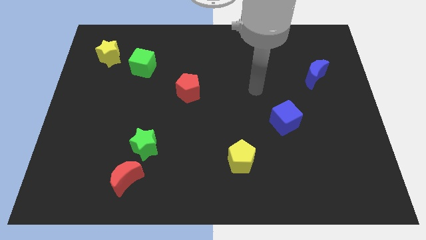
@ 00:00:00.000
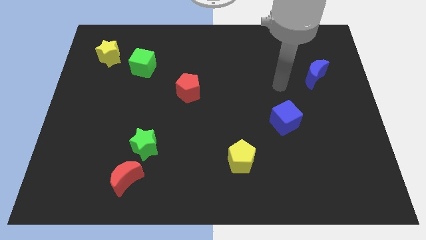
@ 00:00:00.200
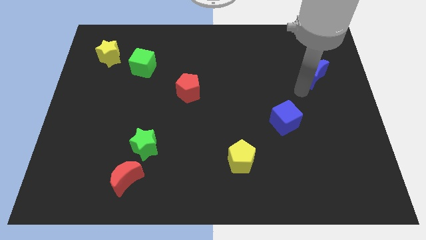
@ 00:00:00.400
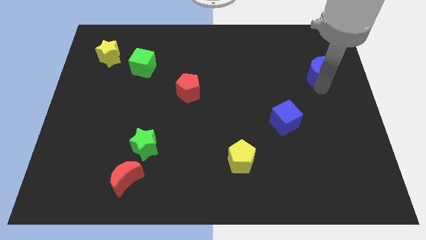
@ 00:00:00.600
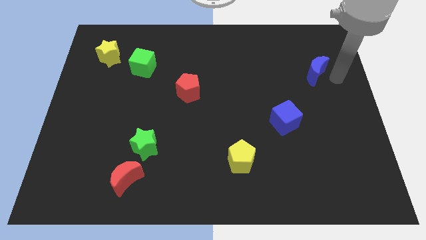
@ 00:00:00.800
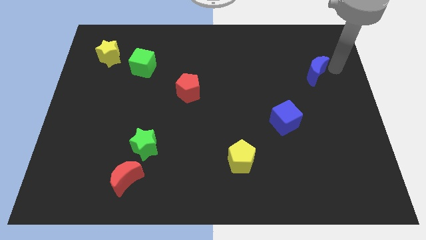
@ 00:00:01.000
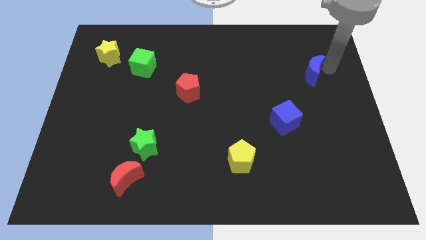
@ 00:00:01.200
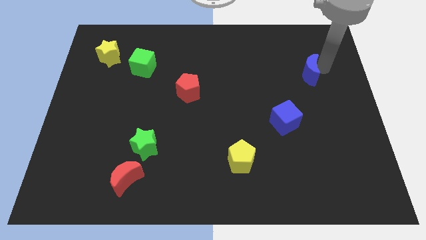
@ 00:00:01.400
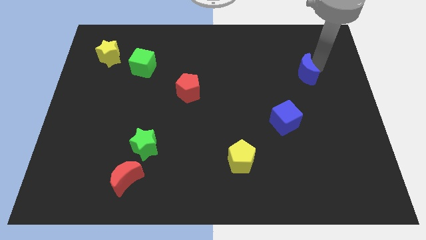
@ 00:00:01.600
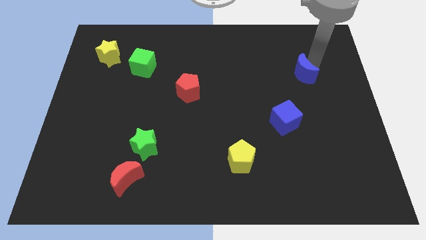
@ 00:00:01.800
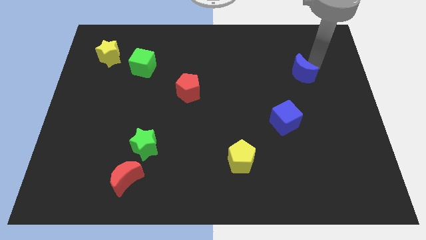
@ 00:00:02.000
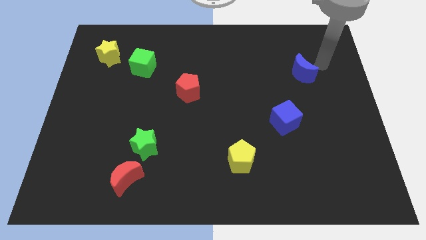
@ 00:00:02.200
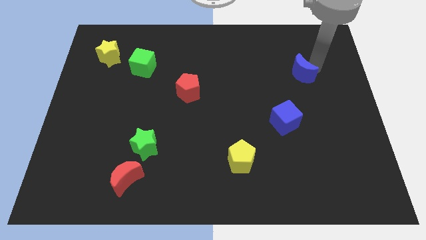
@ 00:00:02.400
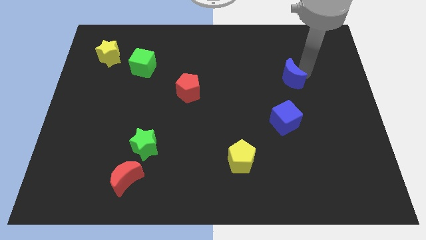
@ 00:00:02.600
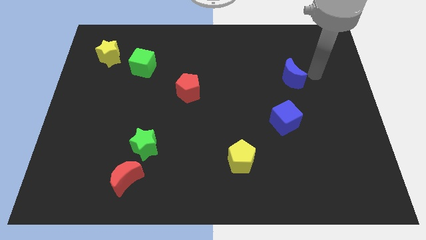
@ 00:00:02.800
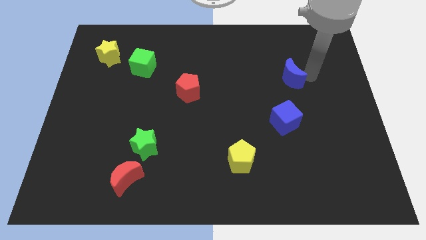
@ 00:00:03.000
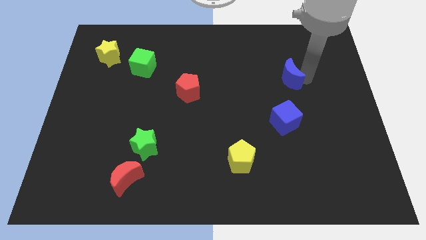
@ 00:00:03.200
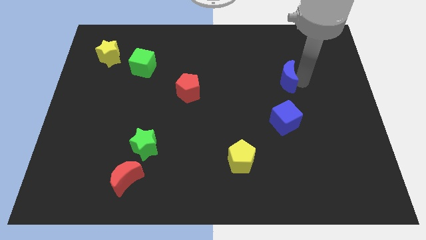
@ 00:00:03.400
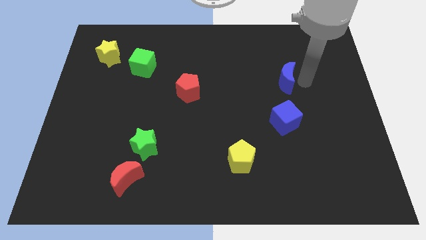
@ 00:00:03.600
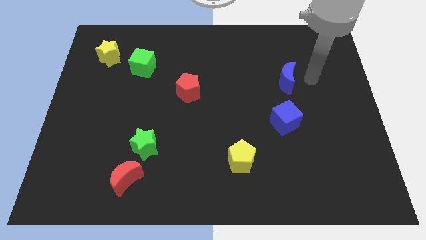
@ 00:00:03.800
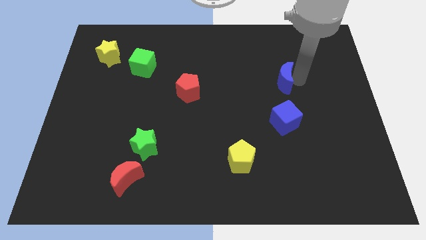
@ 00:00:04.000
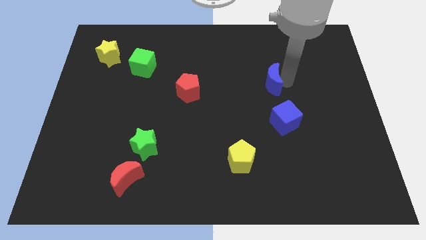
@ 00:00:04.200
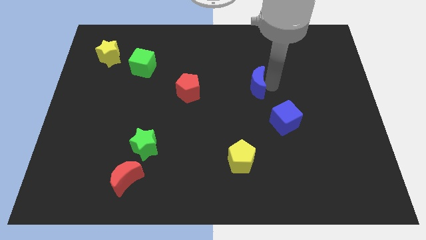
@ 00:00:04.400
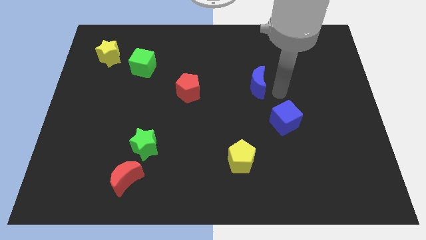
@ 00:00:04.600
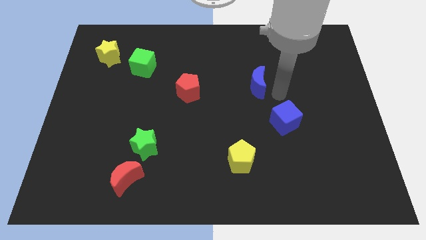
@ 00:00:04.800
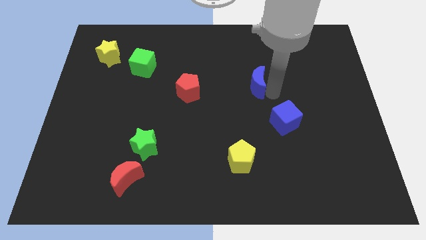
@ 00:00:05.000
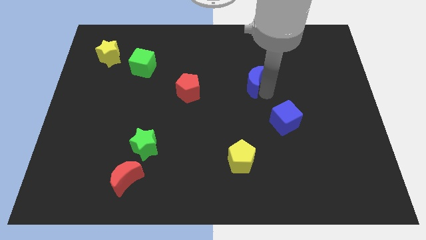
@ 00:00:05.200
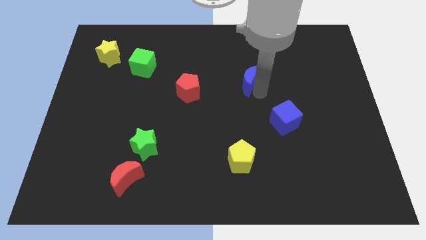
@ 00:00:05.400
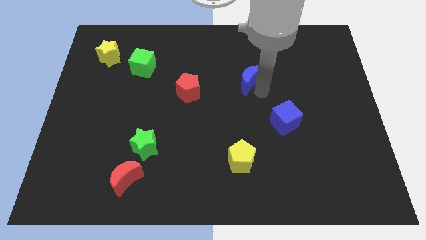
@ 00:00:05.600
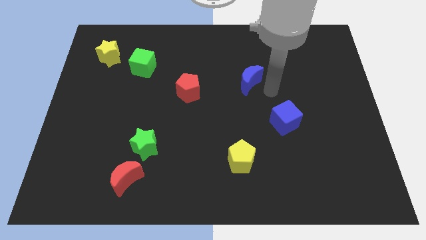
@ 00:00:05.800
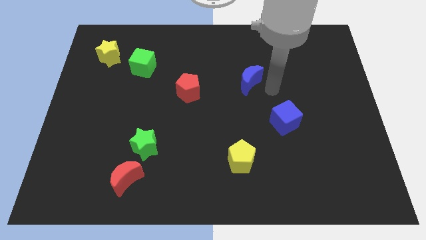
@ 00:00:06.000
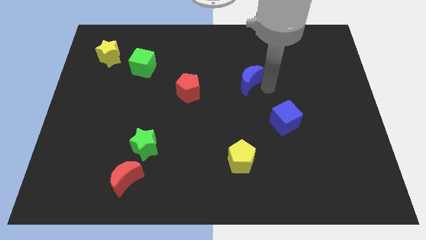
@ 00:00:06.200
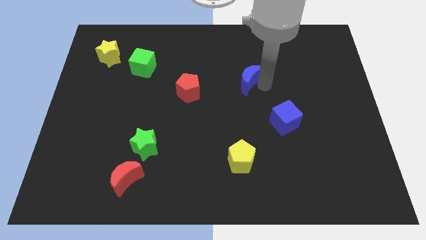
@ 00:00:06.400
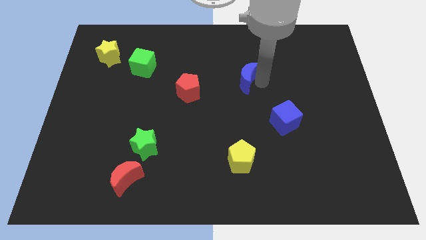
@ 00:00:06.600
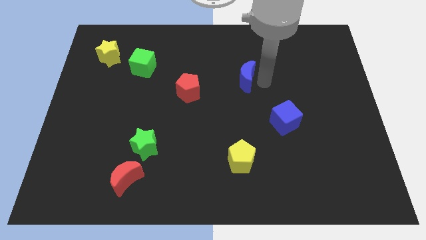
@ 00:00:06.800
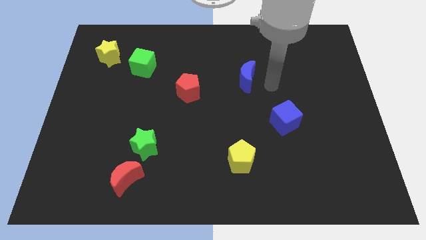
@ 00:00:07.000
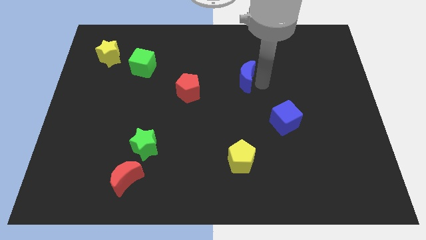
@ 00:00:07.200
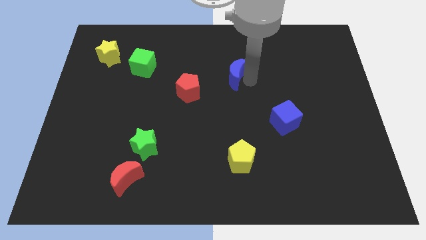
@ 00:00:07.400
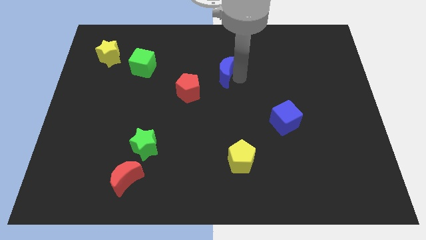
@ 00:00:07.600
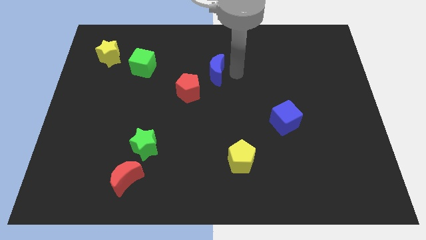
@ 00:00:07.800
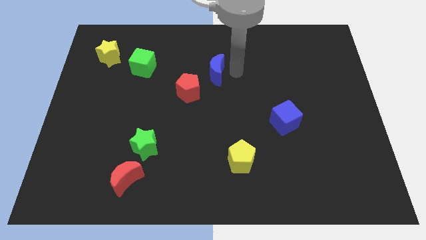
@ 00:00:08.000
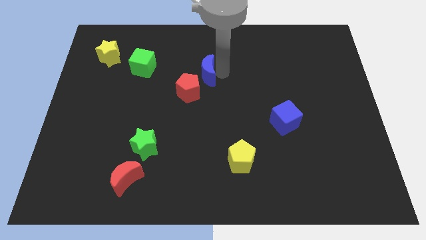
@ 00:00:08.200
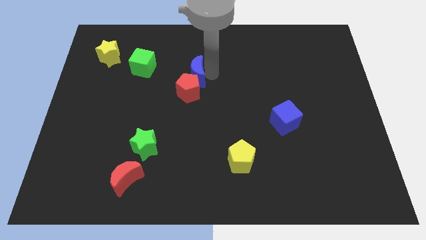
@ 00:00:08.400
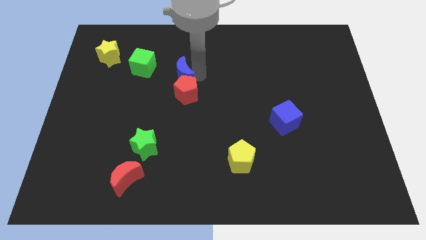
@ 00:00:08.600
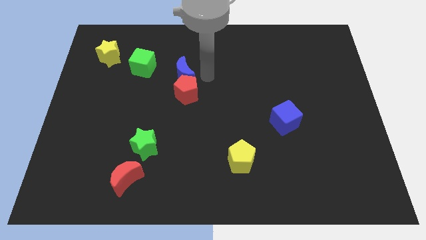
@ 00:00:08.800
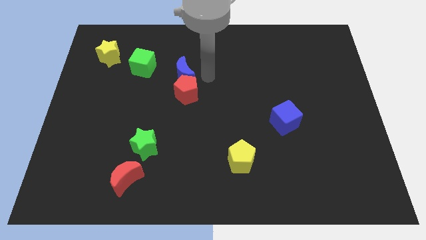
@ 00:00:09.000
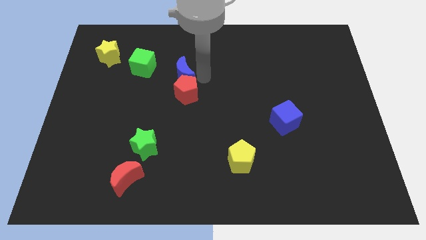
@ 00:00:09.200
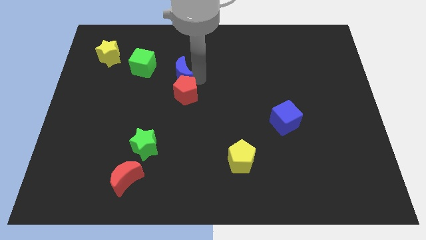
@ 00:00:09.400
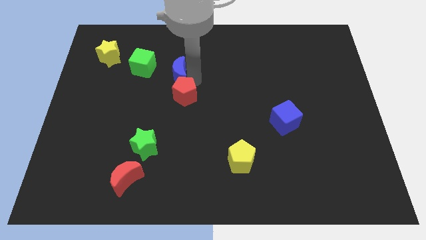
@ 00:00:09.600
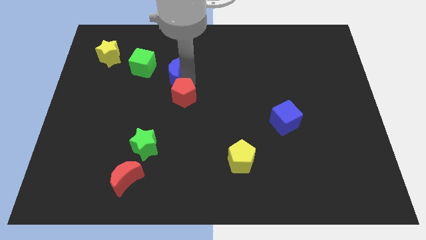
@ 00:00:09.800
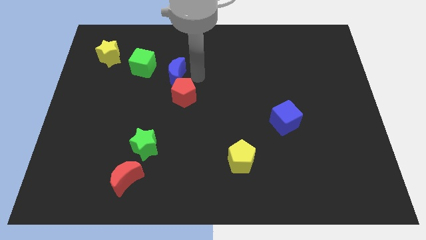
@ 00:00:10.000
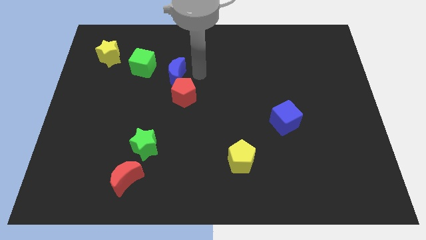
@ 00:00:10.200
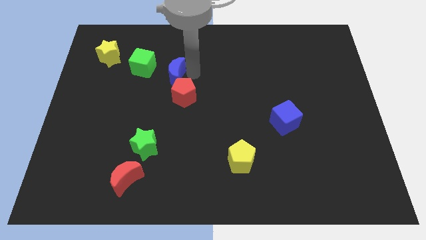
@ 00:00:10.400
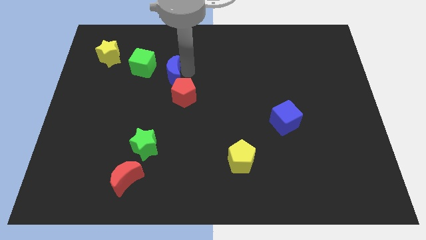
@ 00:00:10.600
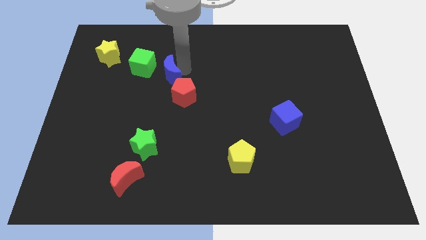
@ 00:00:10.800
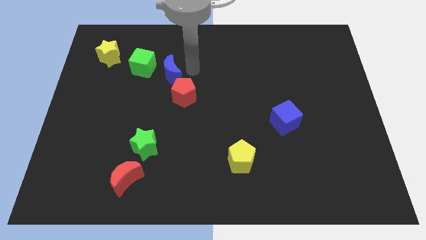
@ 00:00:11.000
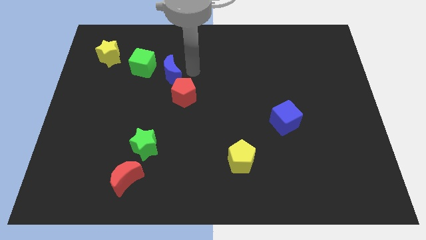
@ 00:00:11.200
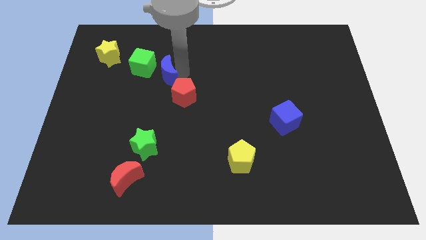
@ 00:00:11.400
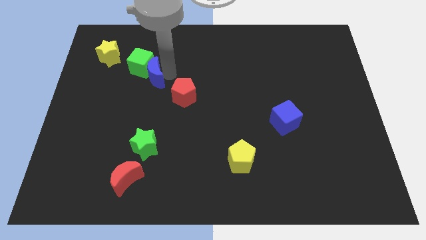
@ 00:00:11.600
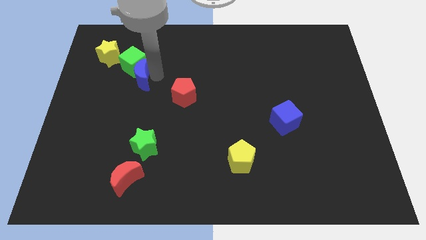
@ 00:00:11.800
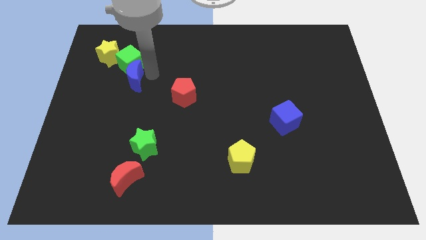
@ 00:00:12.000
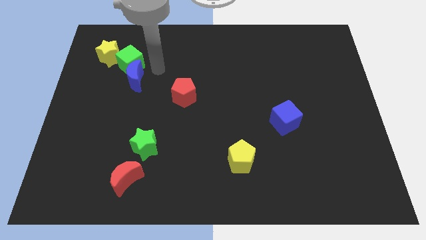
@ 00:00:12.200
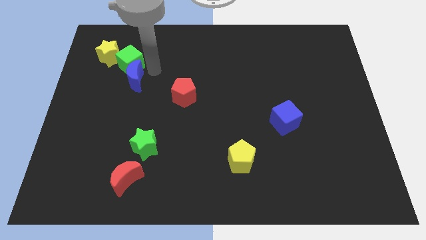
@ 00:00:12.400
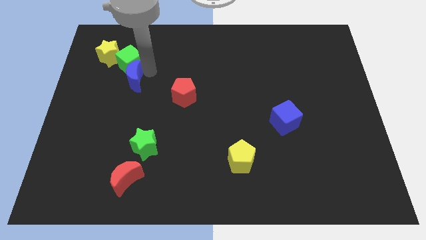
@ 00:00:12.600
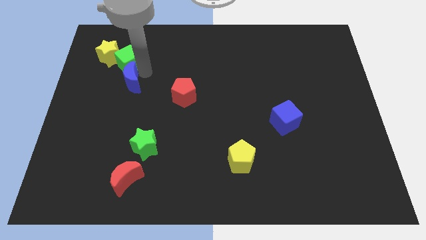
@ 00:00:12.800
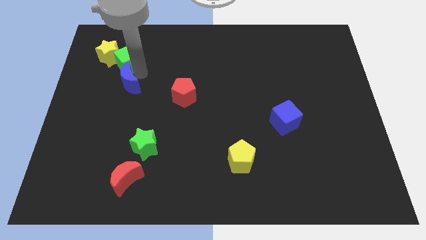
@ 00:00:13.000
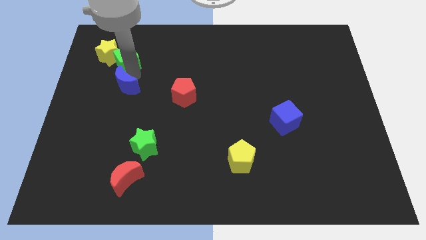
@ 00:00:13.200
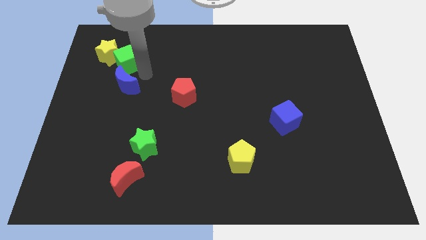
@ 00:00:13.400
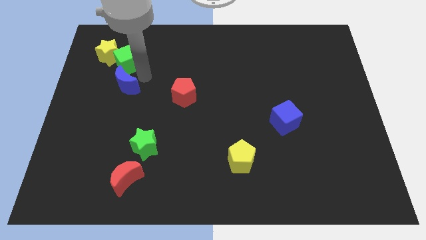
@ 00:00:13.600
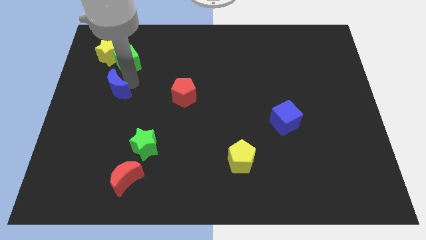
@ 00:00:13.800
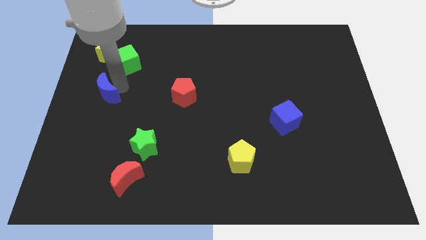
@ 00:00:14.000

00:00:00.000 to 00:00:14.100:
put the blue moon to the left side of the board
